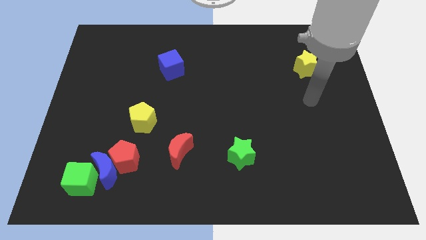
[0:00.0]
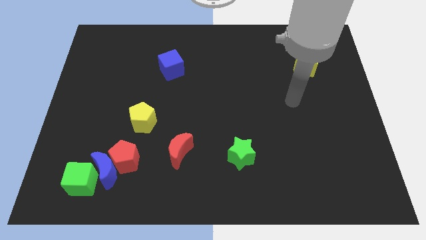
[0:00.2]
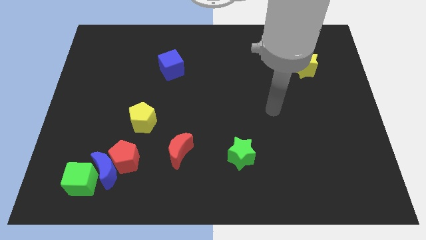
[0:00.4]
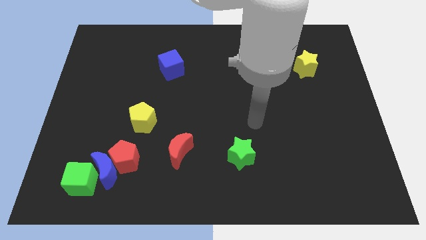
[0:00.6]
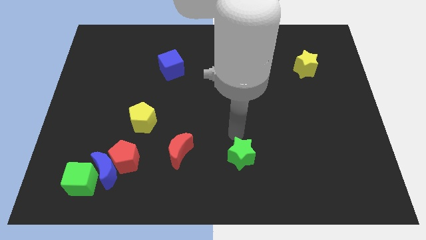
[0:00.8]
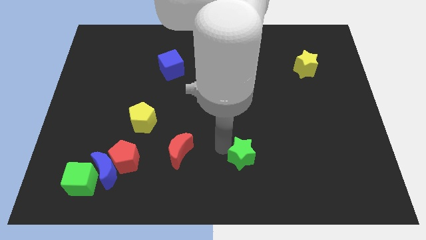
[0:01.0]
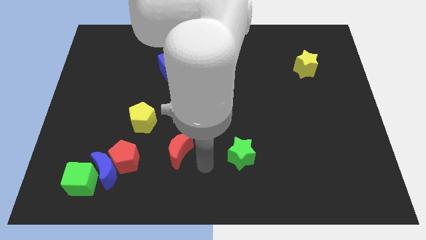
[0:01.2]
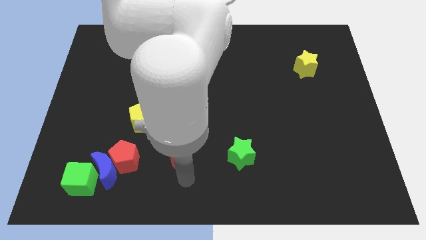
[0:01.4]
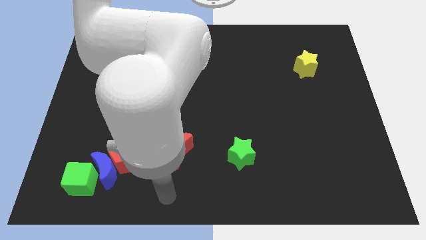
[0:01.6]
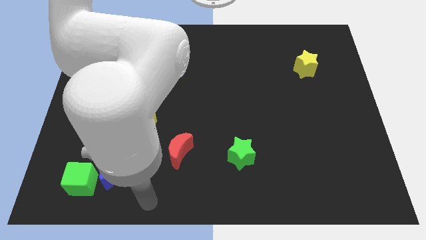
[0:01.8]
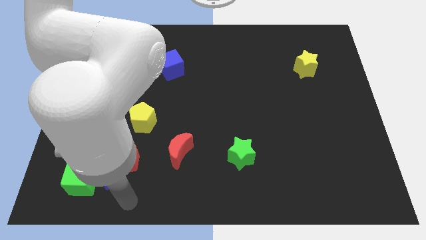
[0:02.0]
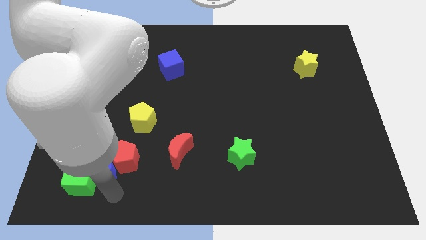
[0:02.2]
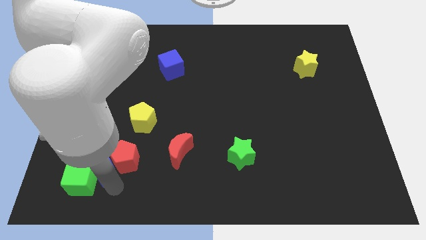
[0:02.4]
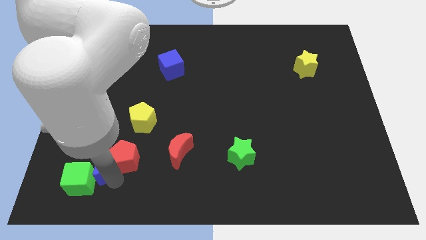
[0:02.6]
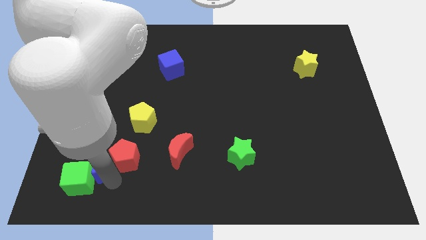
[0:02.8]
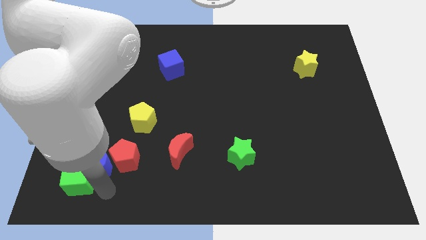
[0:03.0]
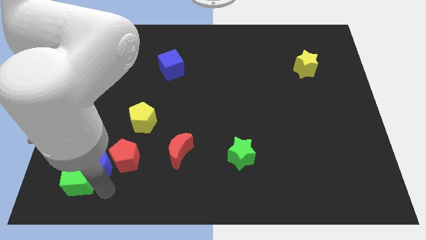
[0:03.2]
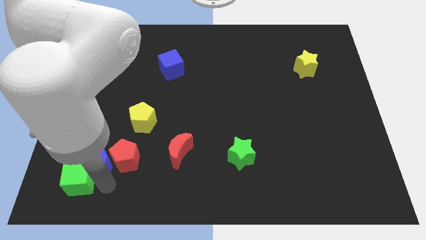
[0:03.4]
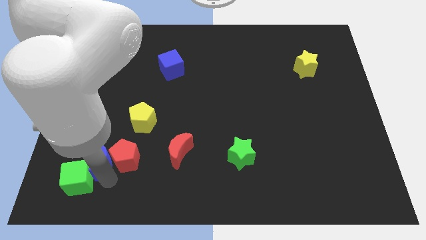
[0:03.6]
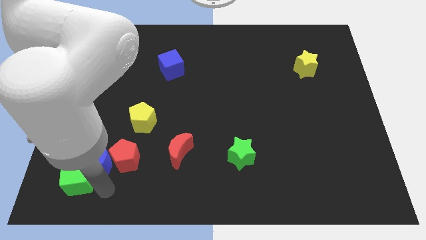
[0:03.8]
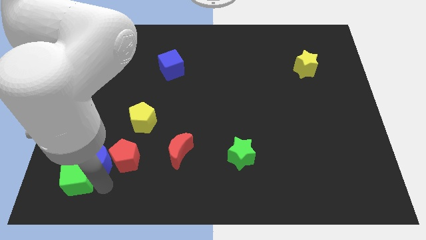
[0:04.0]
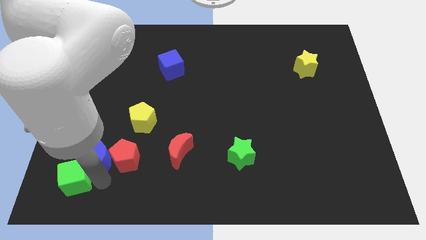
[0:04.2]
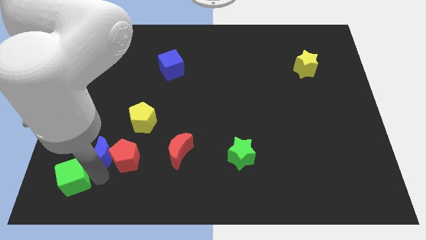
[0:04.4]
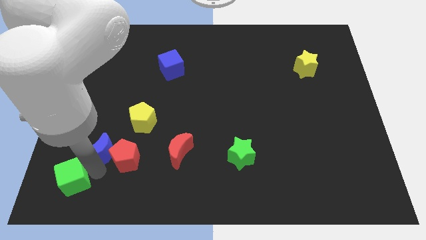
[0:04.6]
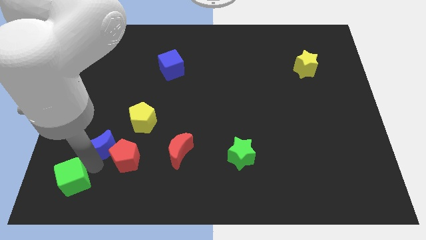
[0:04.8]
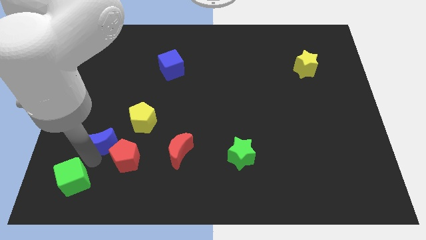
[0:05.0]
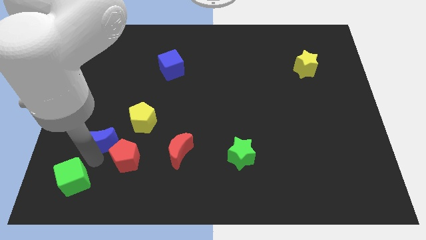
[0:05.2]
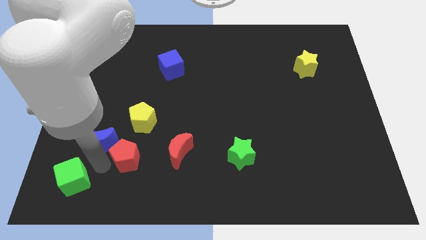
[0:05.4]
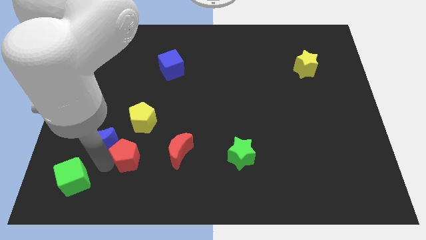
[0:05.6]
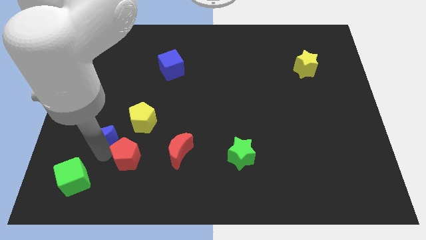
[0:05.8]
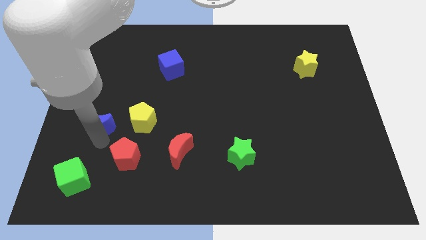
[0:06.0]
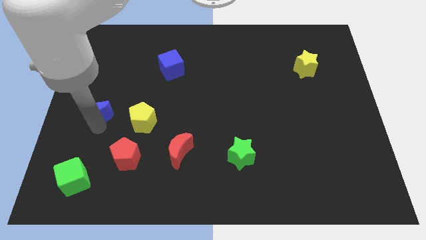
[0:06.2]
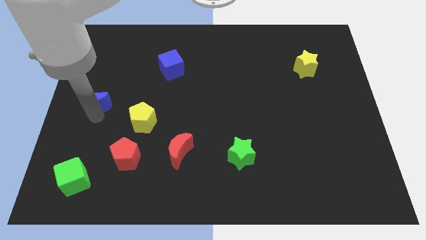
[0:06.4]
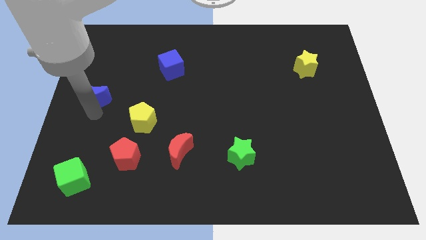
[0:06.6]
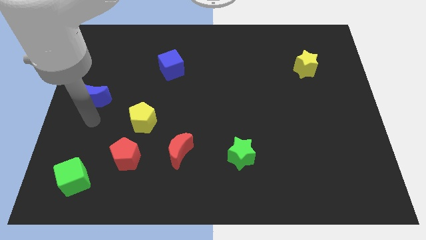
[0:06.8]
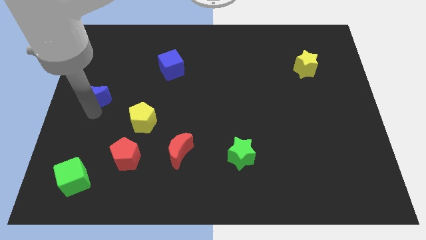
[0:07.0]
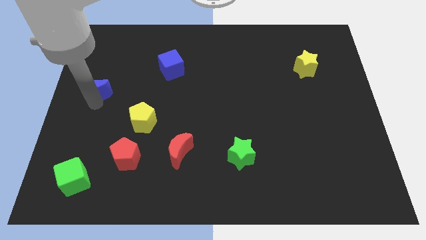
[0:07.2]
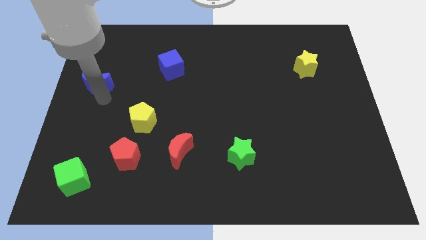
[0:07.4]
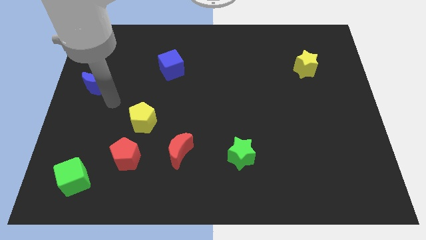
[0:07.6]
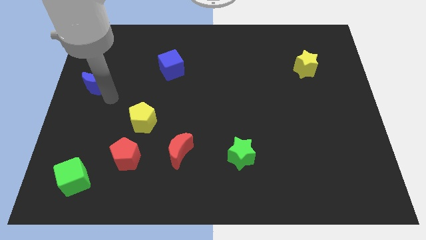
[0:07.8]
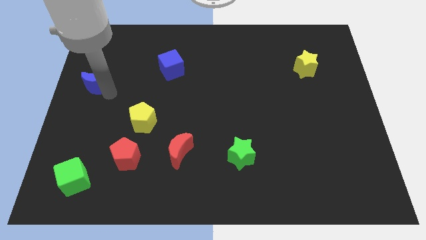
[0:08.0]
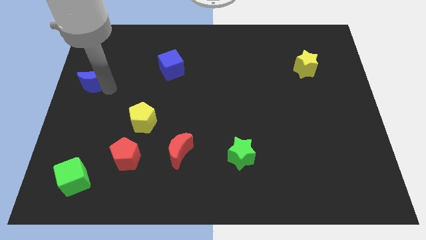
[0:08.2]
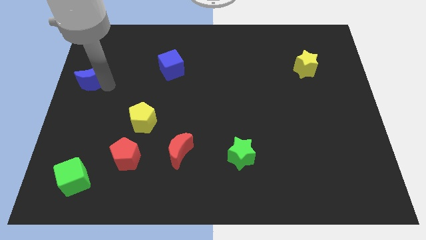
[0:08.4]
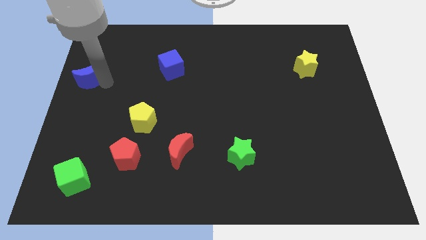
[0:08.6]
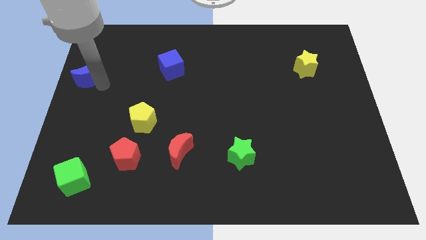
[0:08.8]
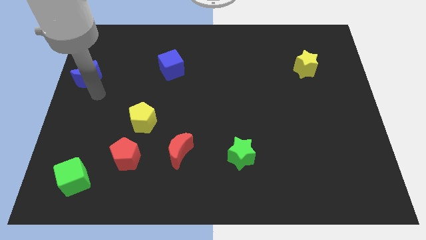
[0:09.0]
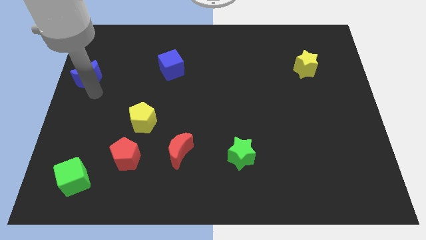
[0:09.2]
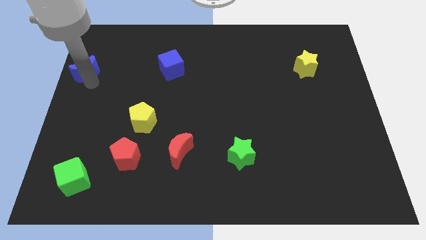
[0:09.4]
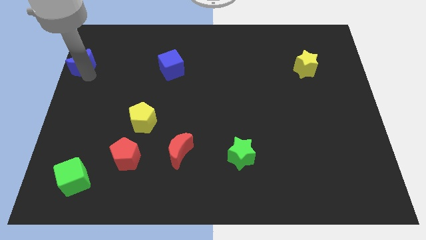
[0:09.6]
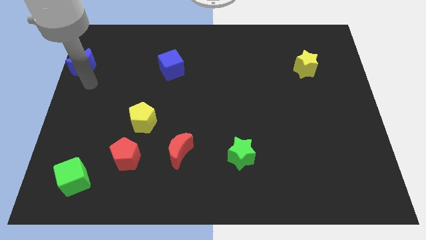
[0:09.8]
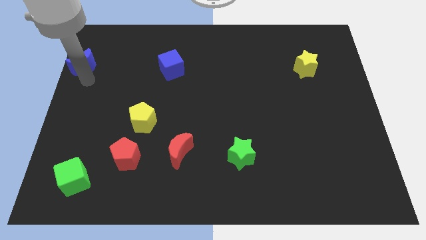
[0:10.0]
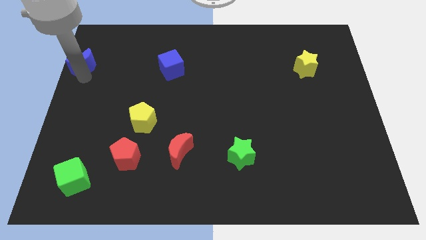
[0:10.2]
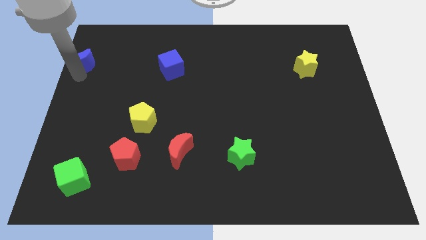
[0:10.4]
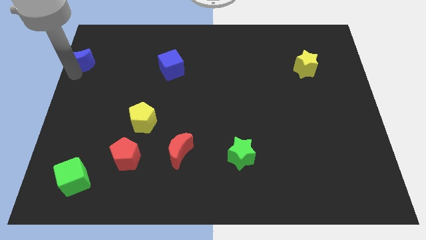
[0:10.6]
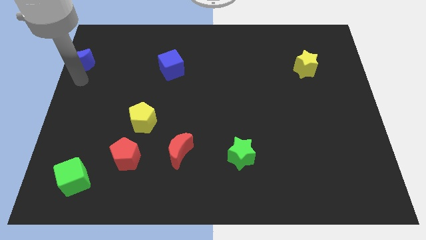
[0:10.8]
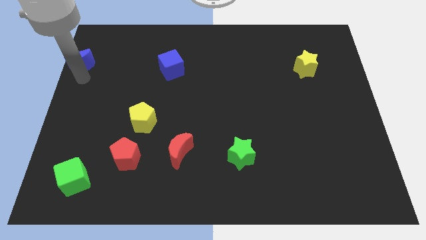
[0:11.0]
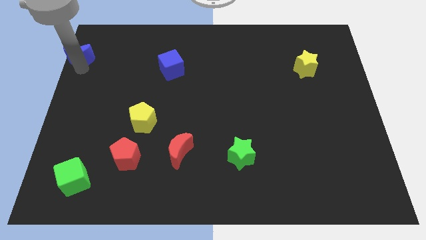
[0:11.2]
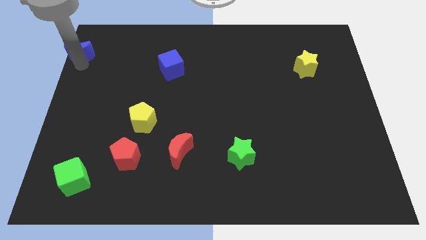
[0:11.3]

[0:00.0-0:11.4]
move the blue moon to the top left corner
